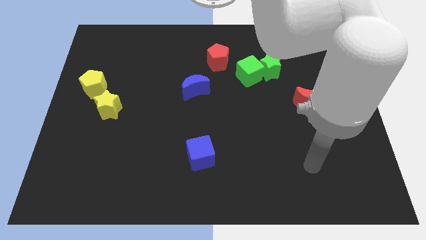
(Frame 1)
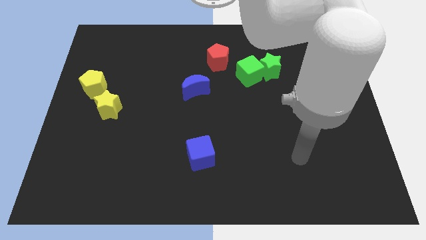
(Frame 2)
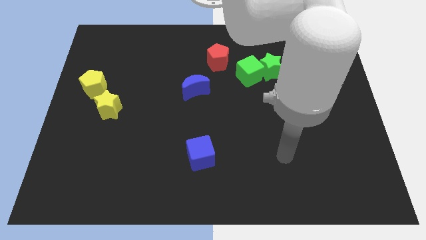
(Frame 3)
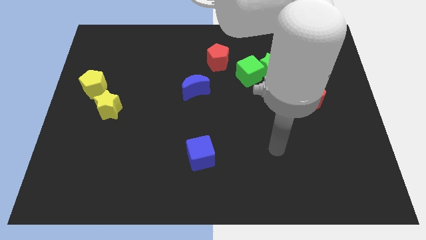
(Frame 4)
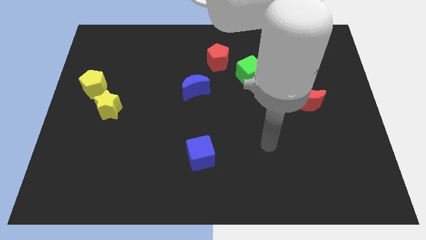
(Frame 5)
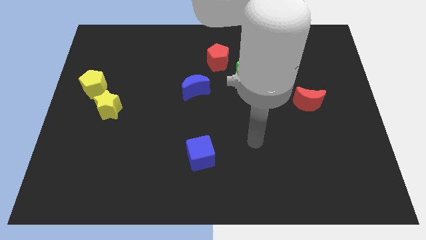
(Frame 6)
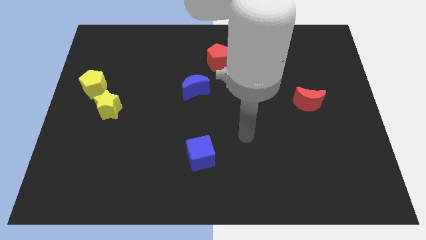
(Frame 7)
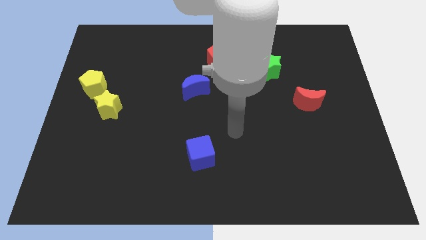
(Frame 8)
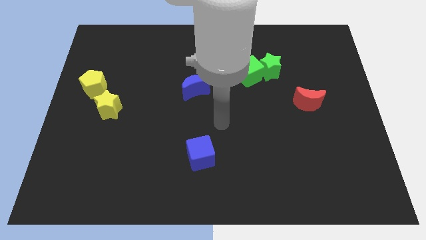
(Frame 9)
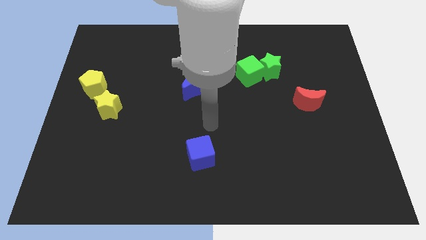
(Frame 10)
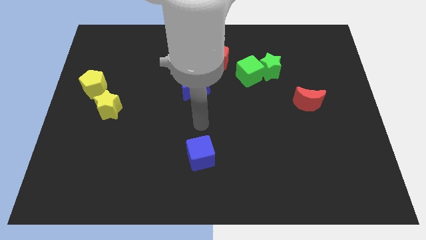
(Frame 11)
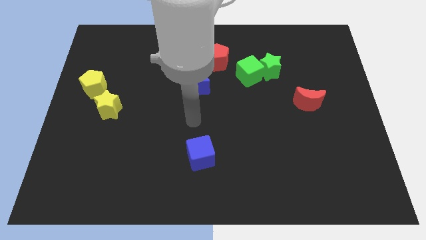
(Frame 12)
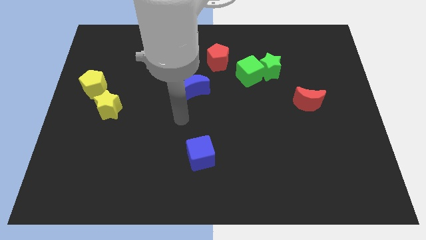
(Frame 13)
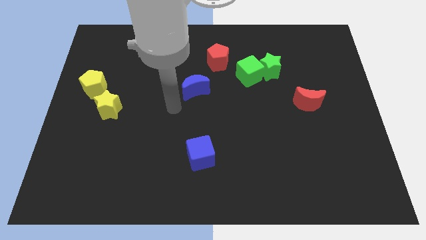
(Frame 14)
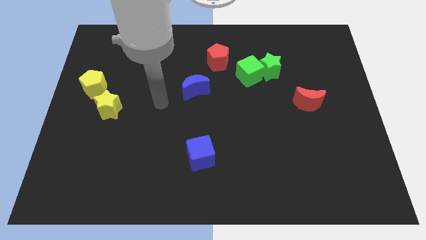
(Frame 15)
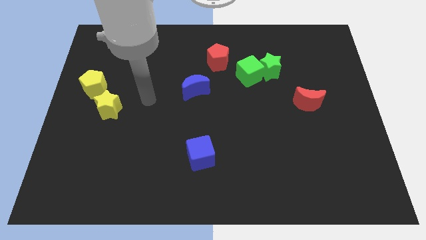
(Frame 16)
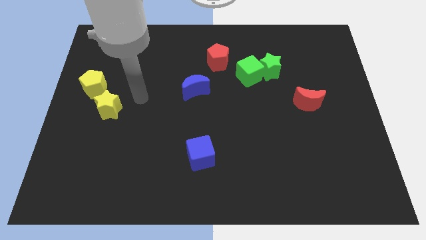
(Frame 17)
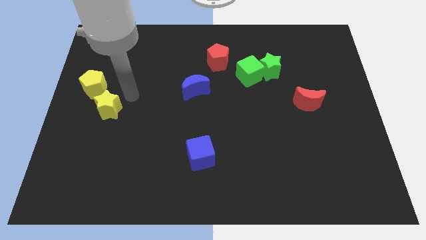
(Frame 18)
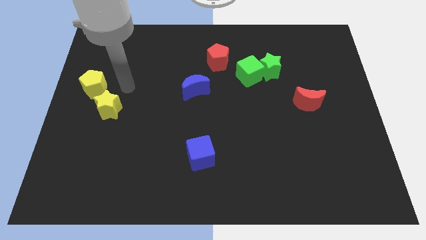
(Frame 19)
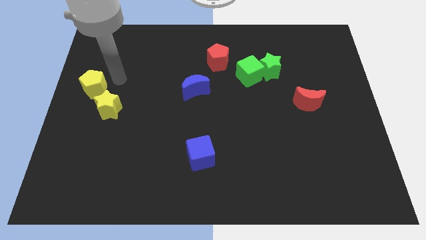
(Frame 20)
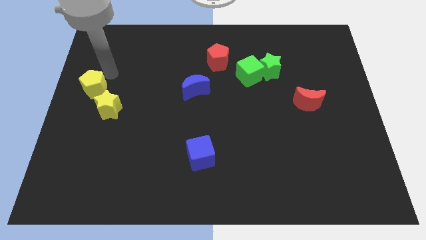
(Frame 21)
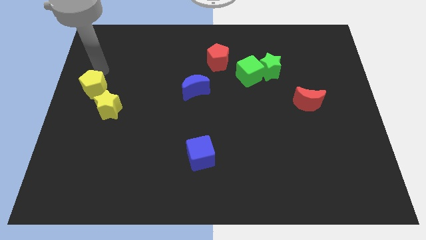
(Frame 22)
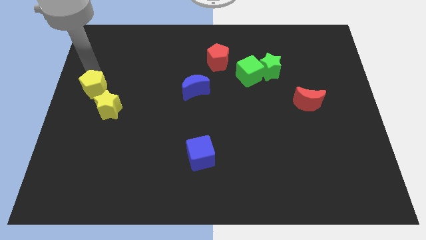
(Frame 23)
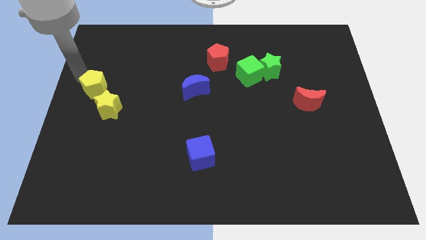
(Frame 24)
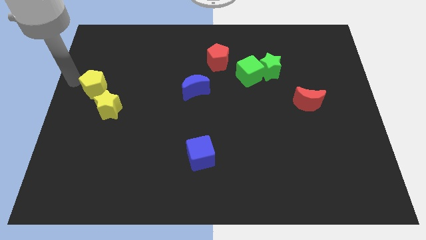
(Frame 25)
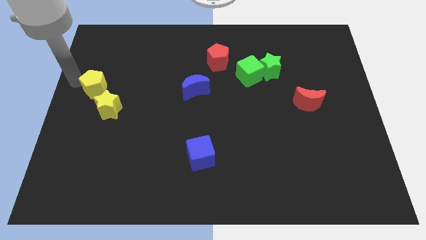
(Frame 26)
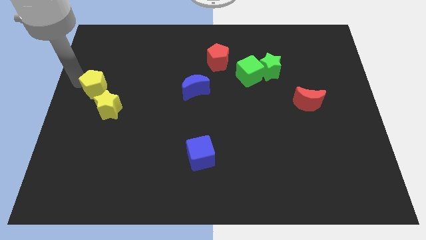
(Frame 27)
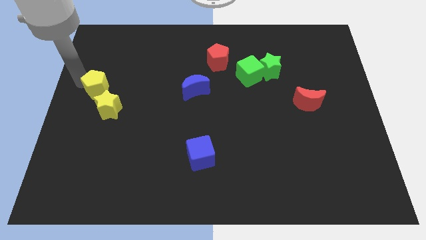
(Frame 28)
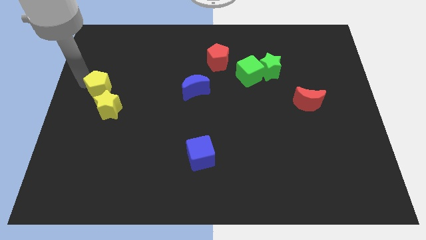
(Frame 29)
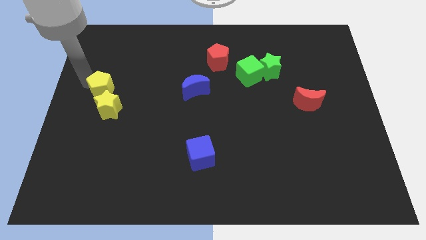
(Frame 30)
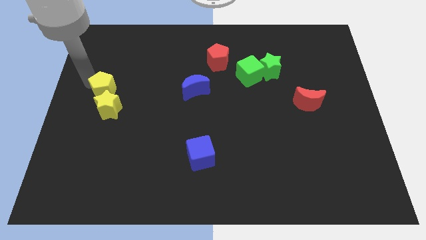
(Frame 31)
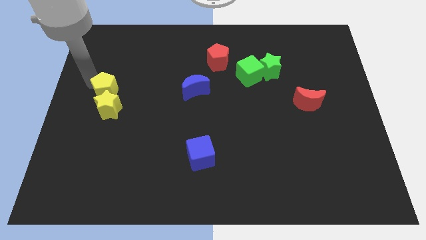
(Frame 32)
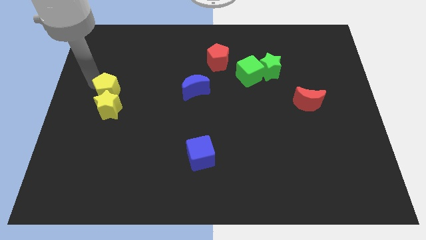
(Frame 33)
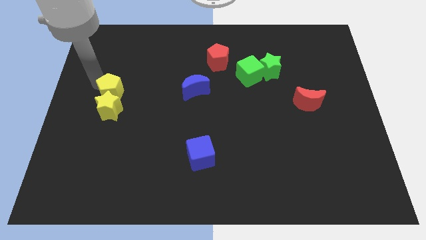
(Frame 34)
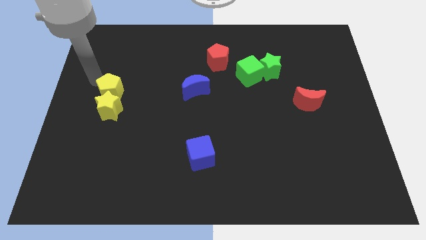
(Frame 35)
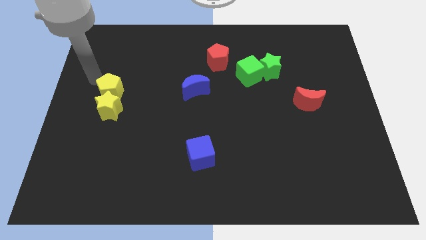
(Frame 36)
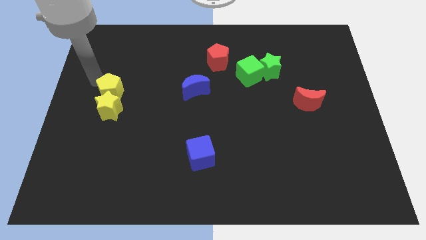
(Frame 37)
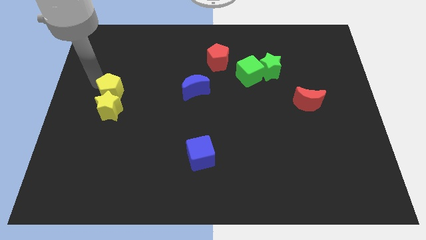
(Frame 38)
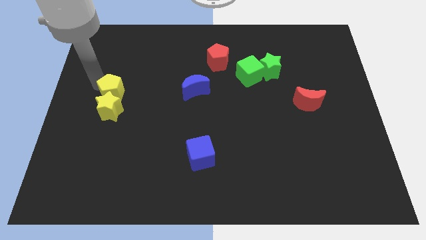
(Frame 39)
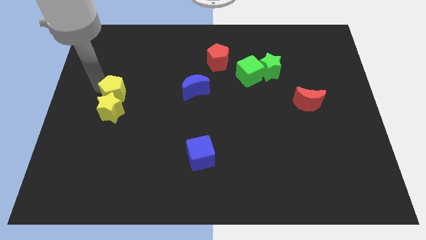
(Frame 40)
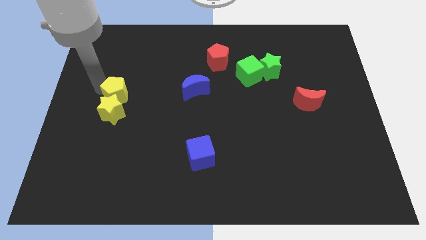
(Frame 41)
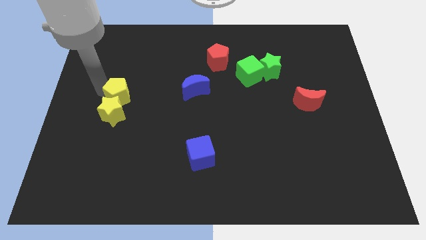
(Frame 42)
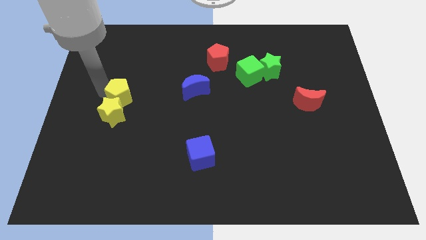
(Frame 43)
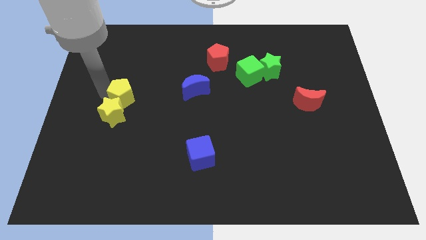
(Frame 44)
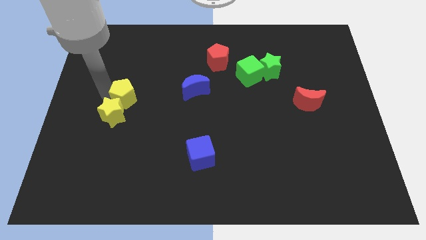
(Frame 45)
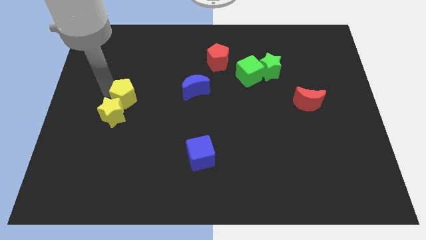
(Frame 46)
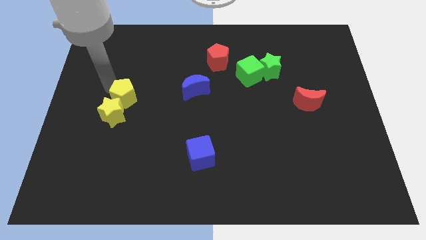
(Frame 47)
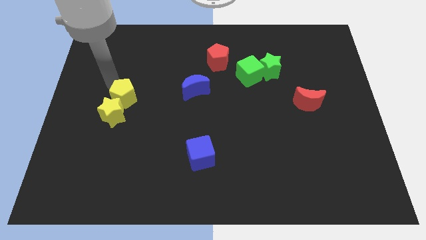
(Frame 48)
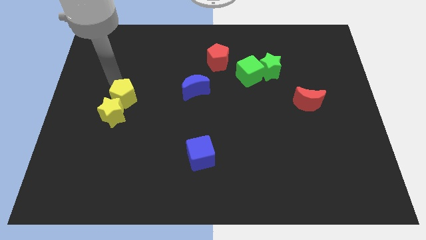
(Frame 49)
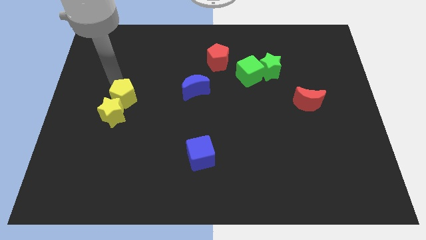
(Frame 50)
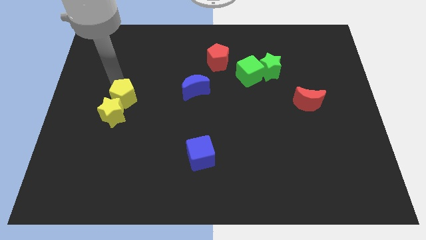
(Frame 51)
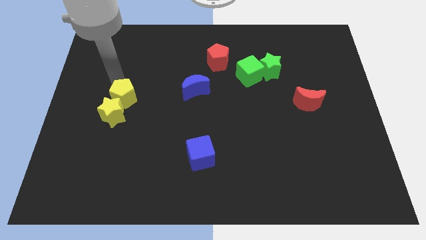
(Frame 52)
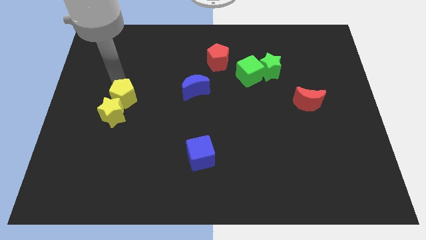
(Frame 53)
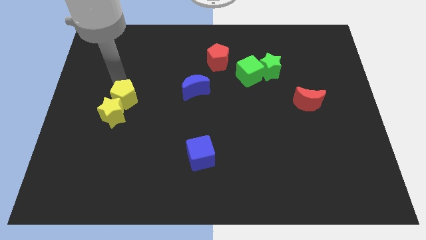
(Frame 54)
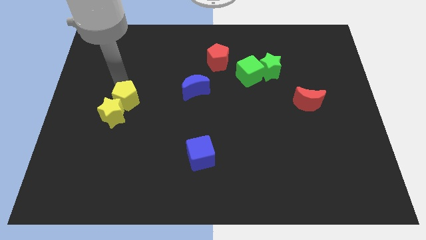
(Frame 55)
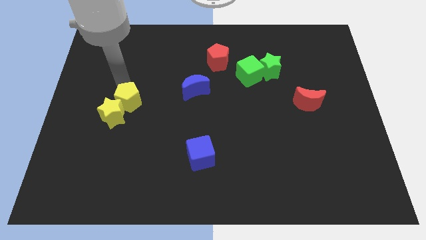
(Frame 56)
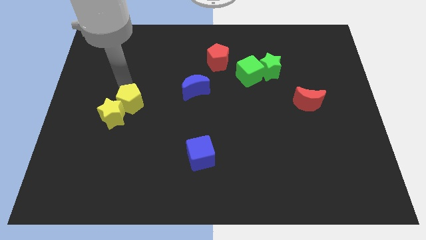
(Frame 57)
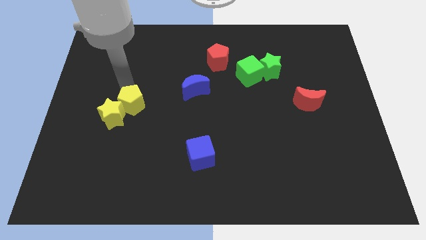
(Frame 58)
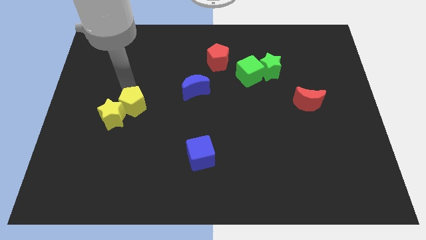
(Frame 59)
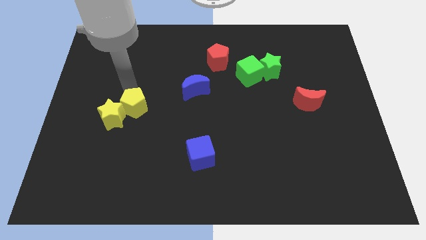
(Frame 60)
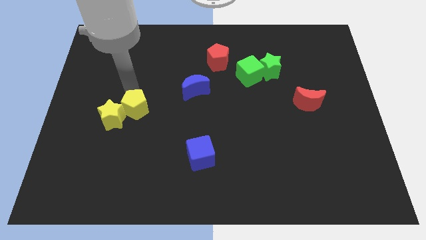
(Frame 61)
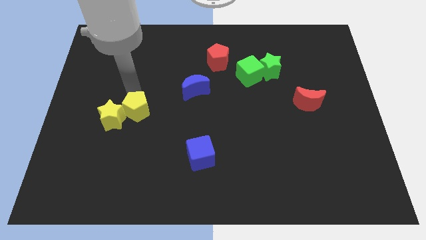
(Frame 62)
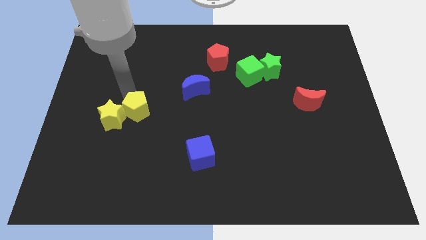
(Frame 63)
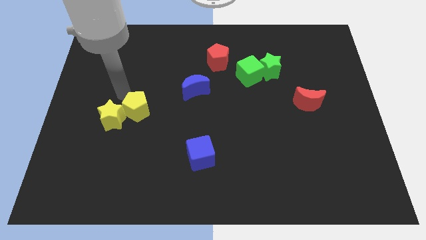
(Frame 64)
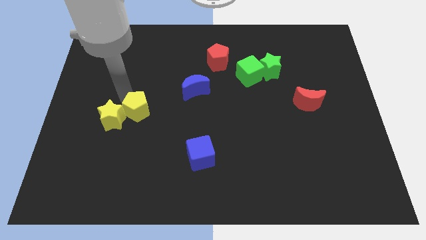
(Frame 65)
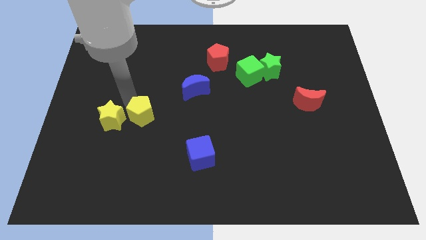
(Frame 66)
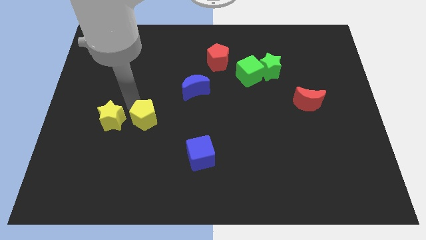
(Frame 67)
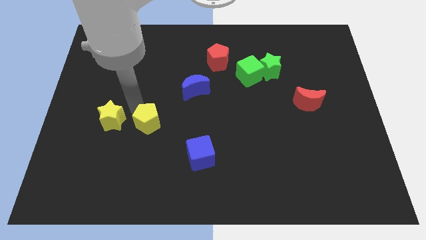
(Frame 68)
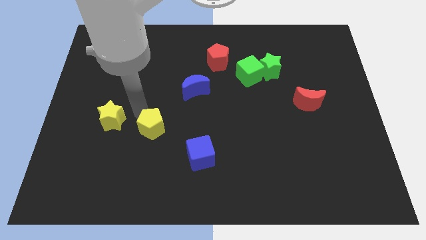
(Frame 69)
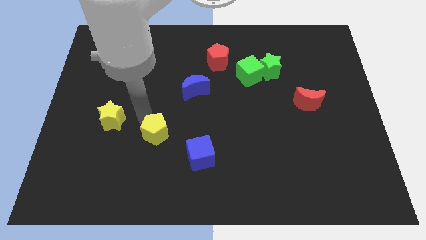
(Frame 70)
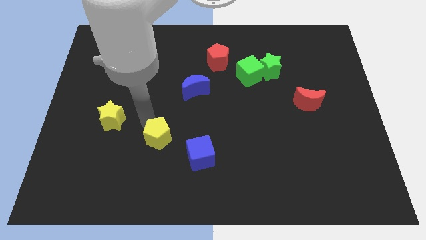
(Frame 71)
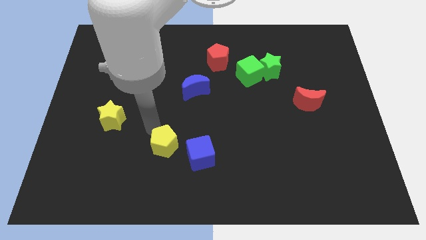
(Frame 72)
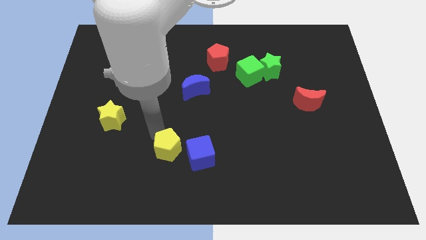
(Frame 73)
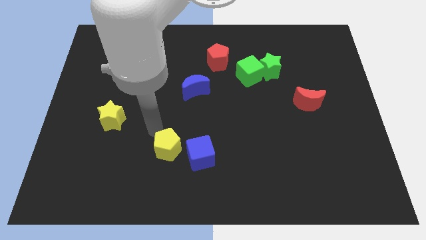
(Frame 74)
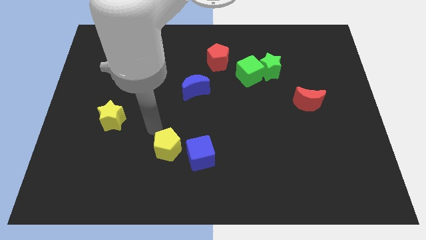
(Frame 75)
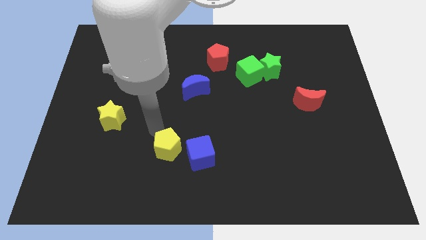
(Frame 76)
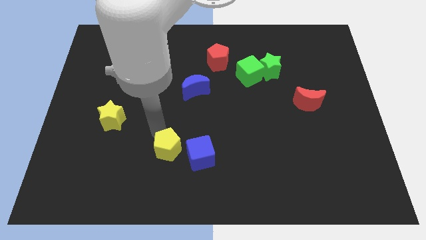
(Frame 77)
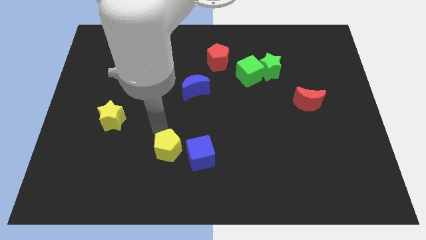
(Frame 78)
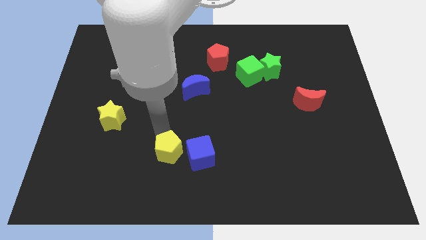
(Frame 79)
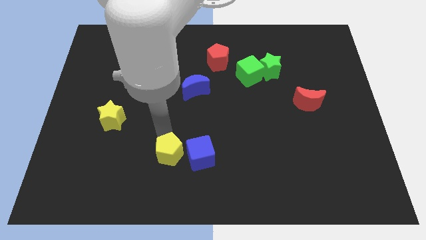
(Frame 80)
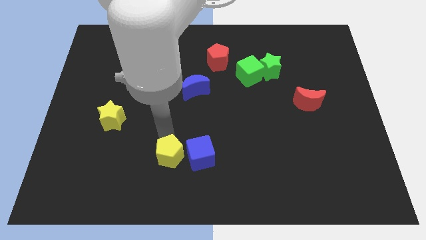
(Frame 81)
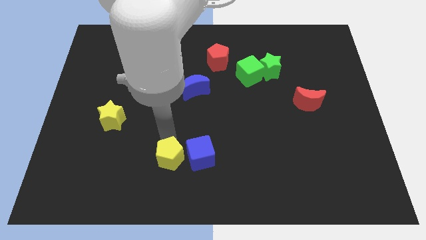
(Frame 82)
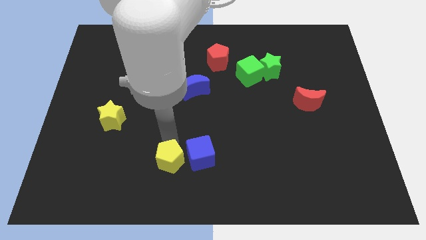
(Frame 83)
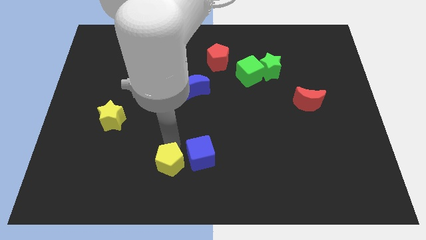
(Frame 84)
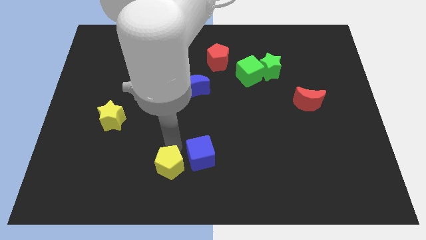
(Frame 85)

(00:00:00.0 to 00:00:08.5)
put the yellow pentagon to the bottom side
